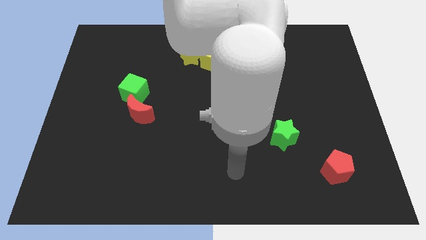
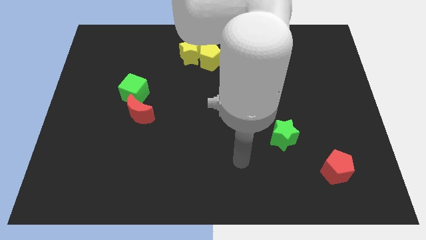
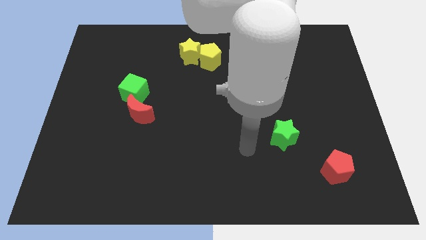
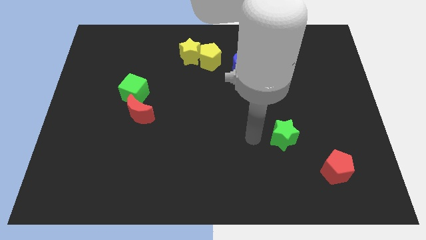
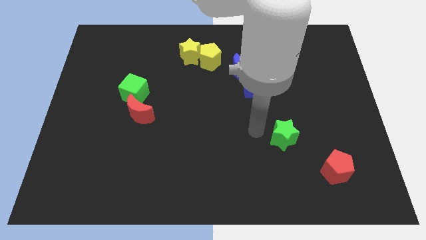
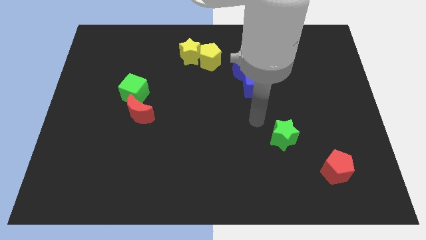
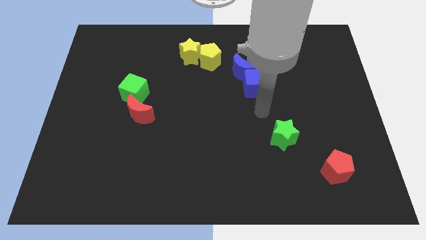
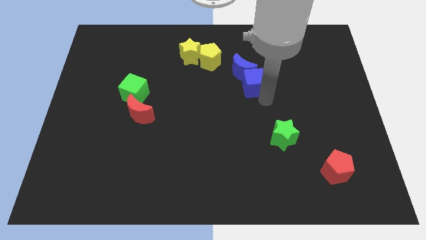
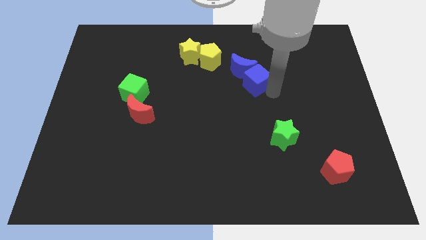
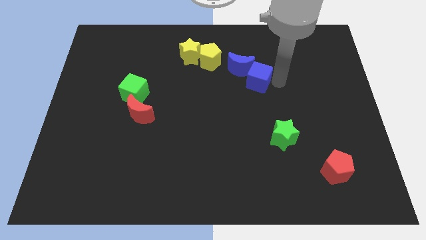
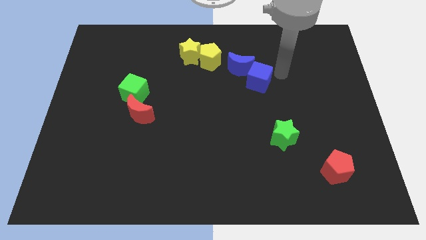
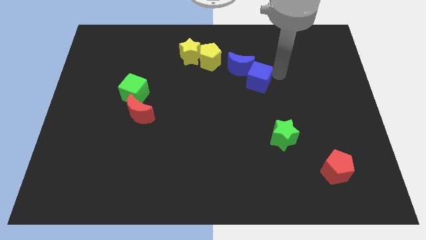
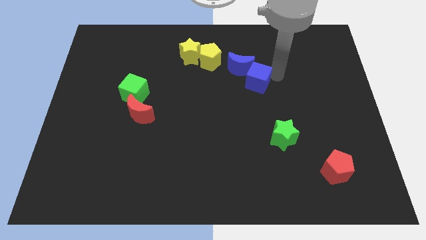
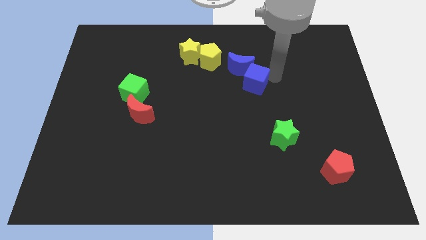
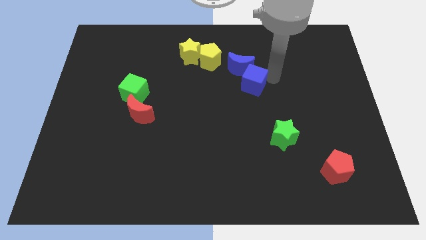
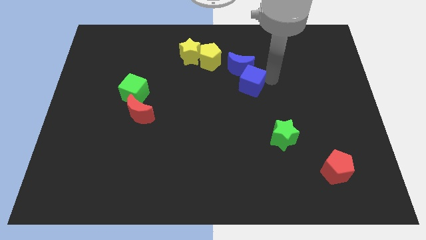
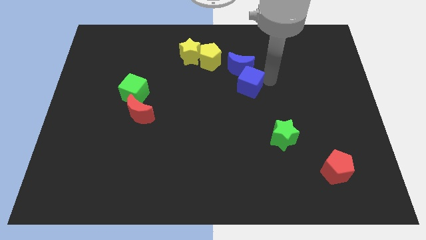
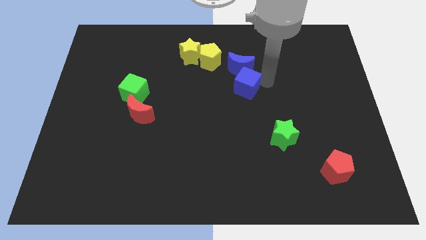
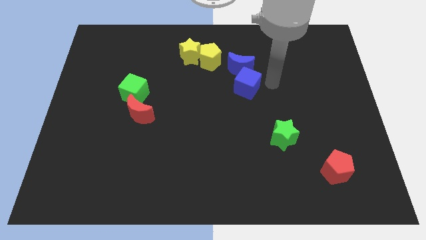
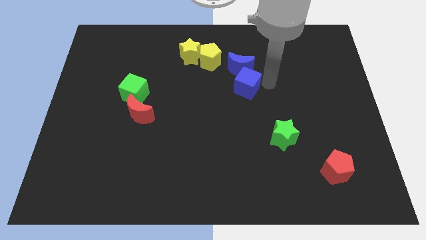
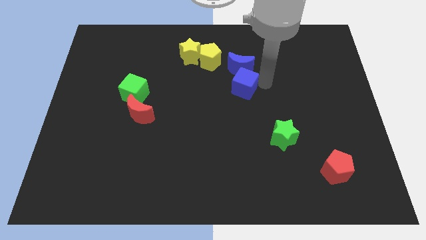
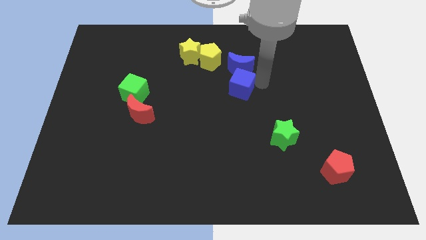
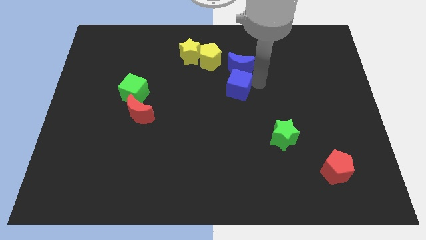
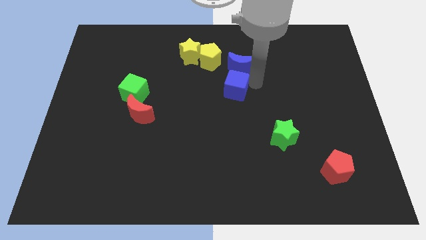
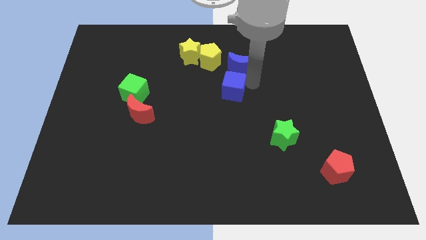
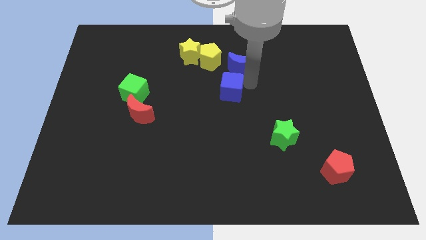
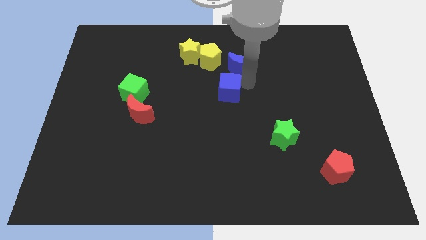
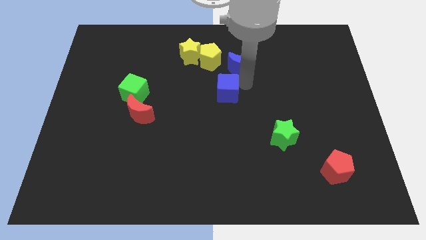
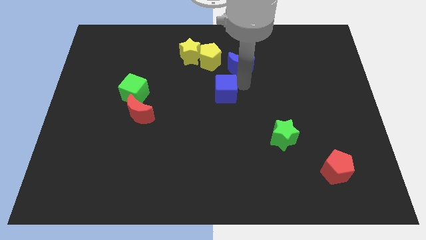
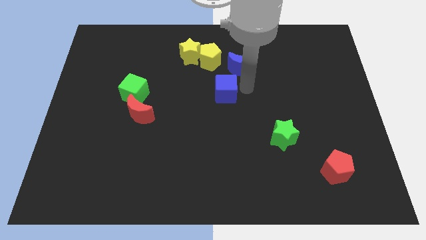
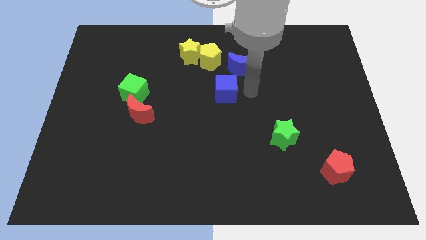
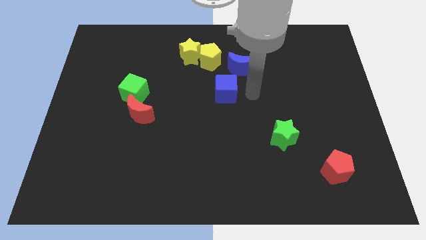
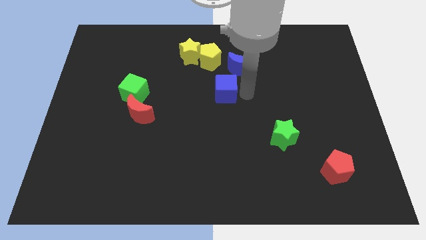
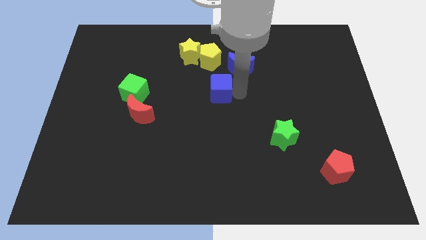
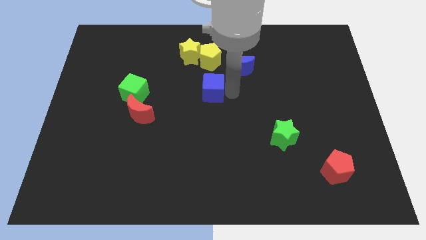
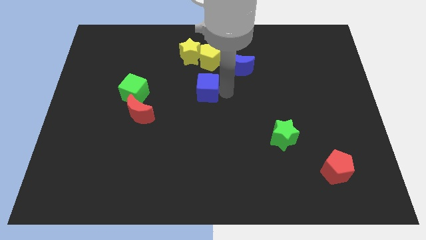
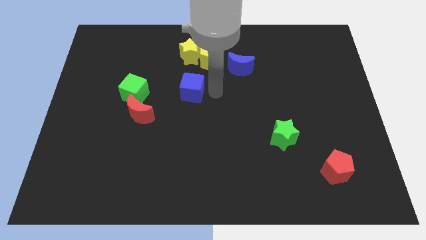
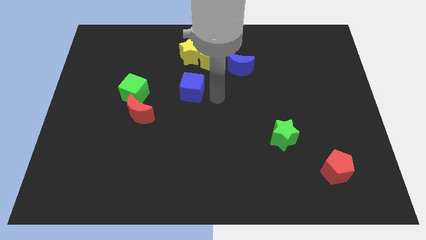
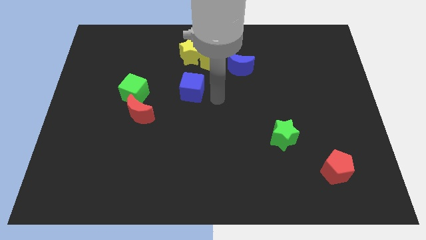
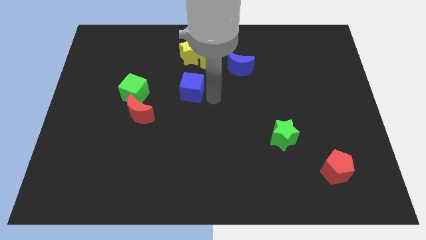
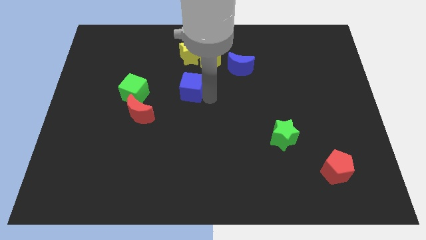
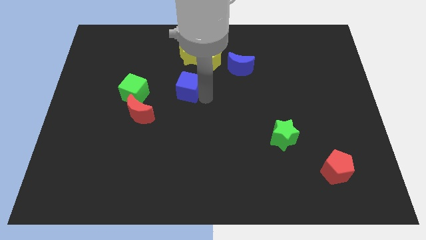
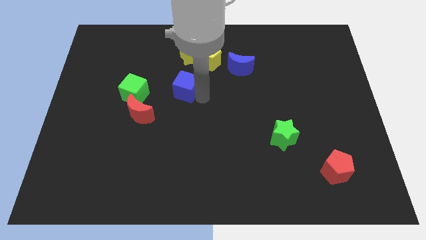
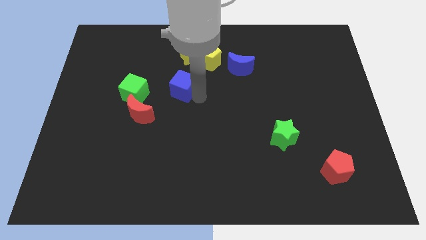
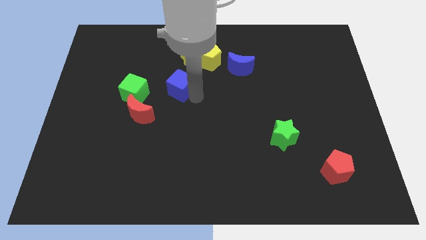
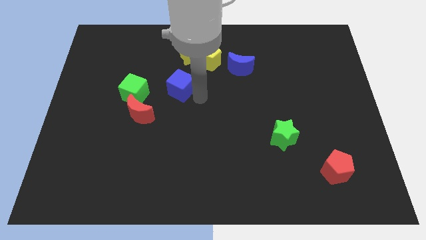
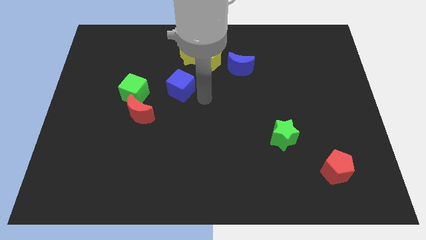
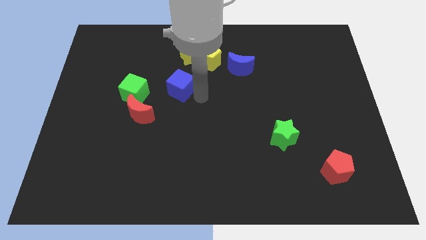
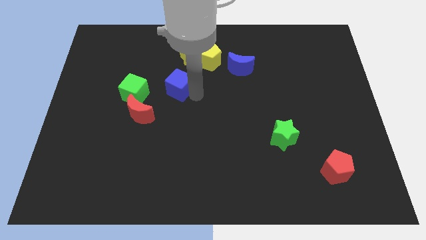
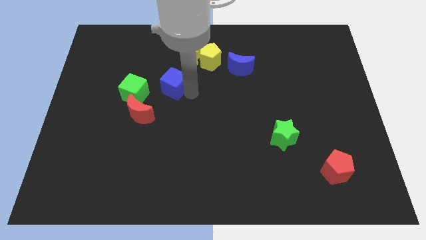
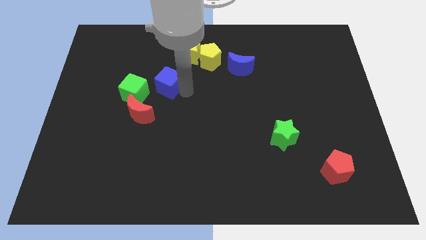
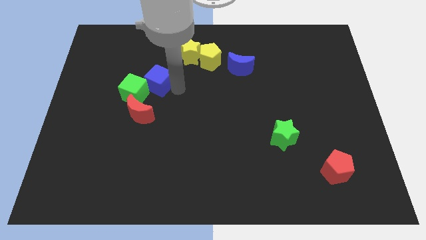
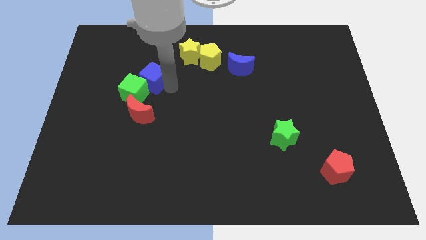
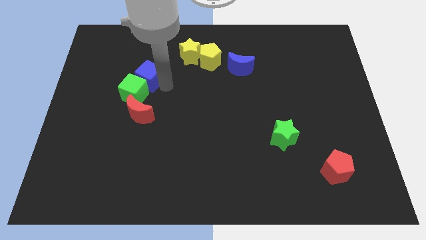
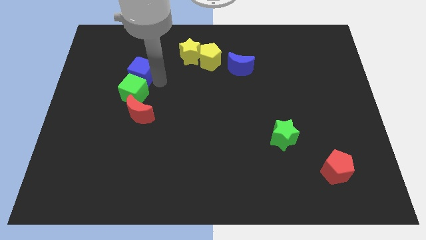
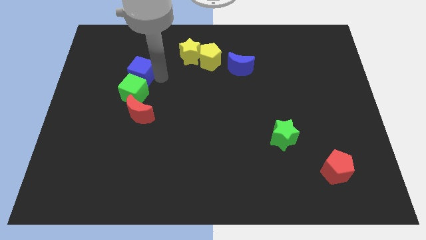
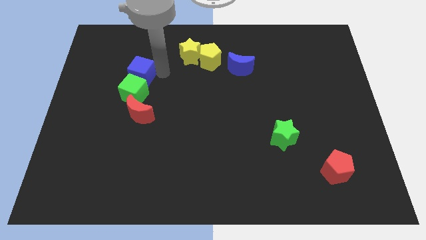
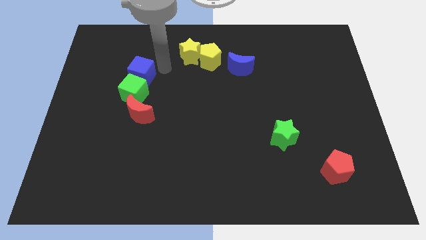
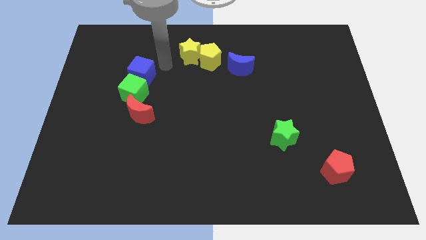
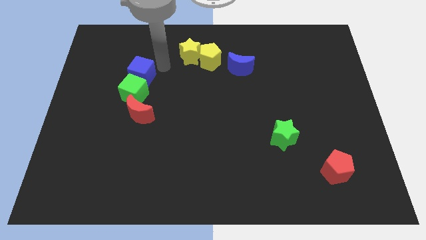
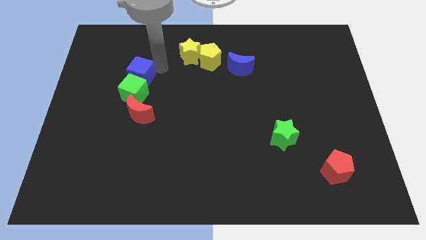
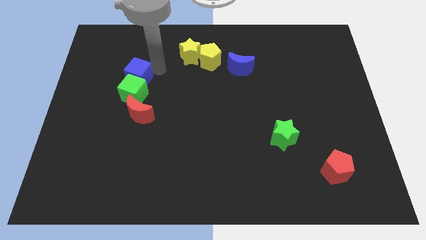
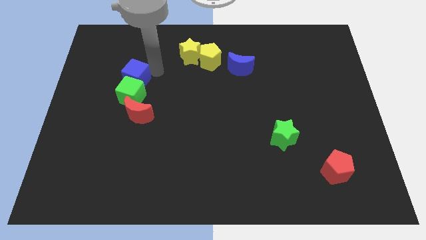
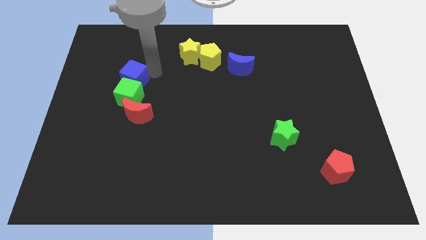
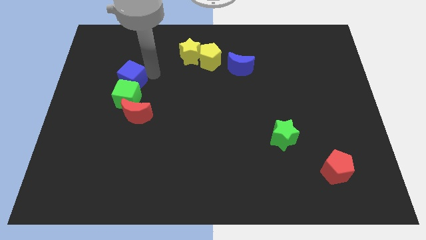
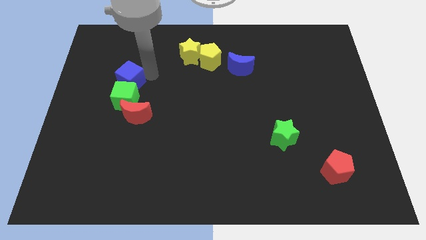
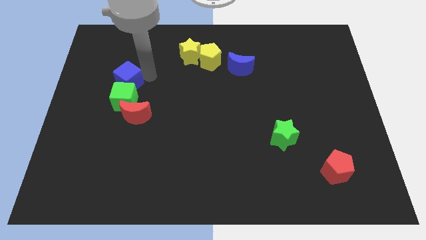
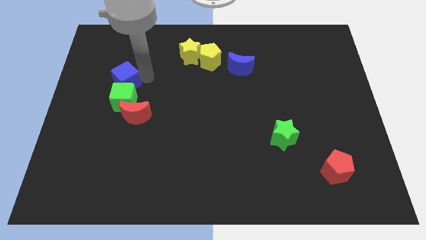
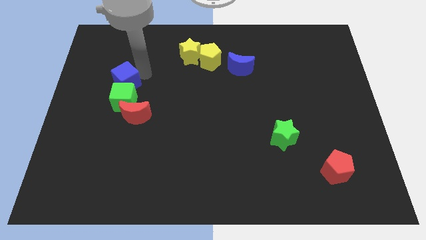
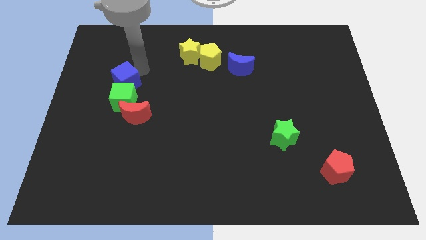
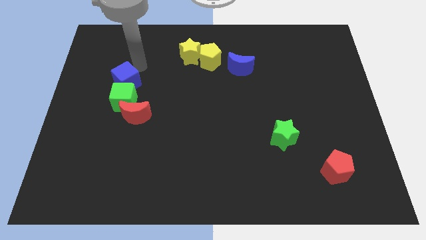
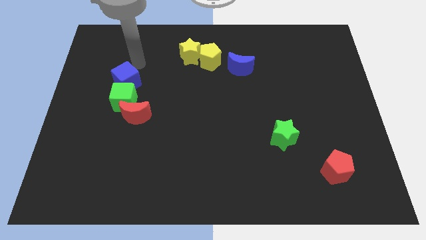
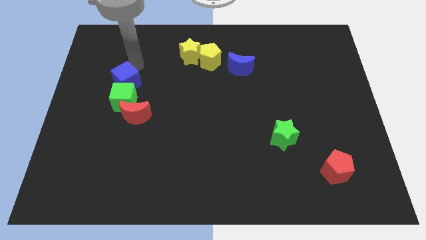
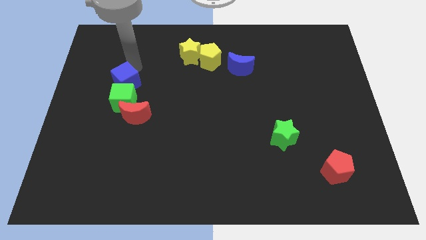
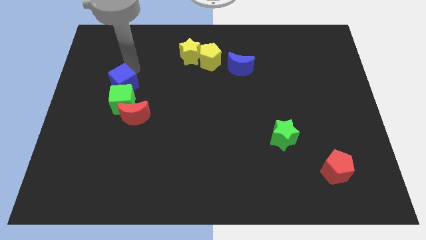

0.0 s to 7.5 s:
push the blue cube diagonally up and to the left of the red moon
